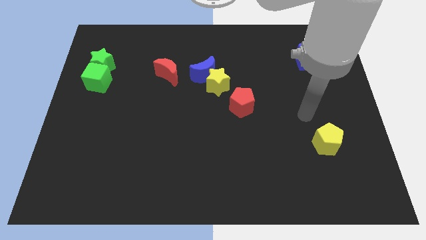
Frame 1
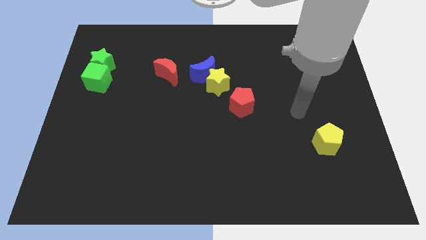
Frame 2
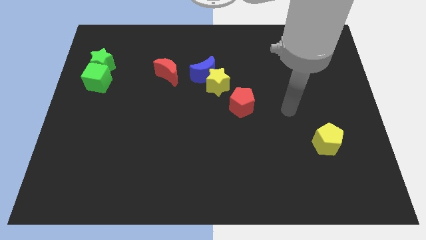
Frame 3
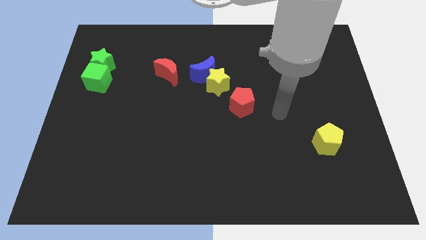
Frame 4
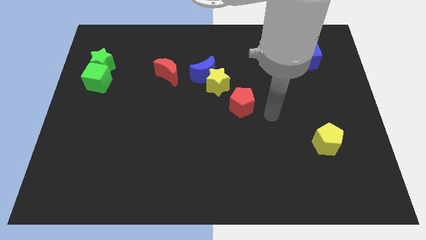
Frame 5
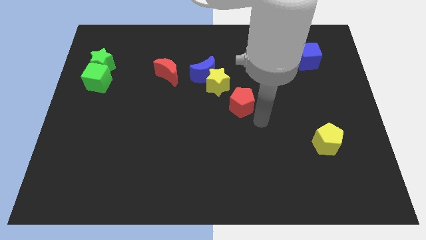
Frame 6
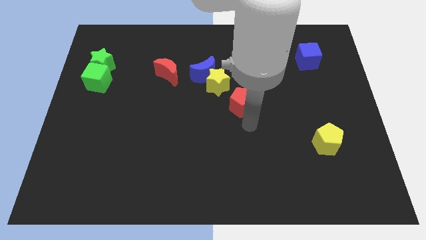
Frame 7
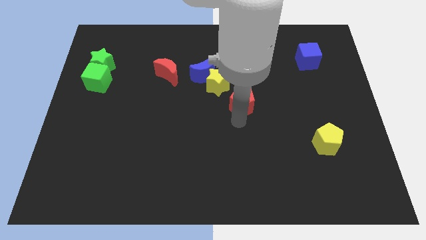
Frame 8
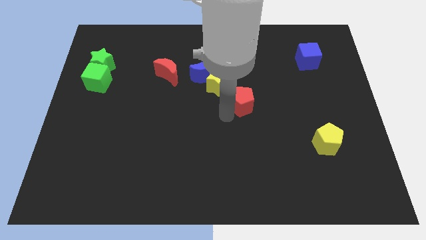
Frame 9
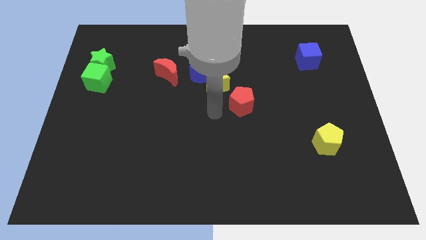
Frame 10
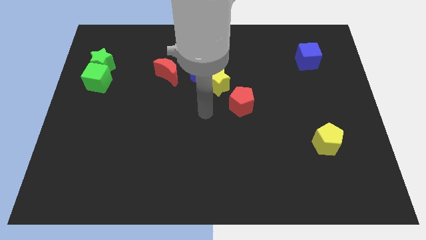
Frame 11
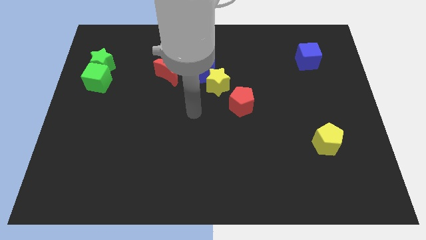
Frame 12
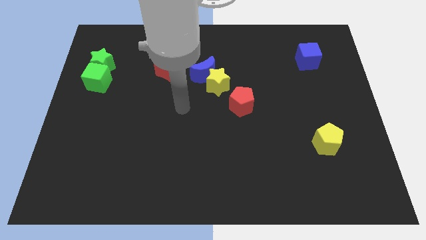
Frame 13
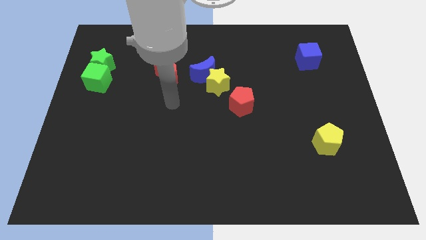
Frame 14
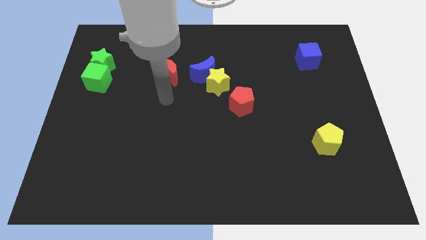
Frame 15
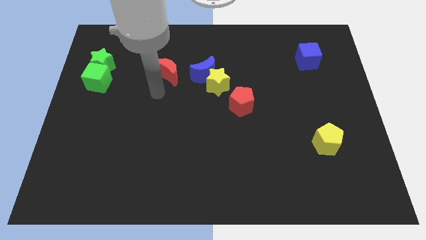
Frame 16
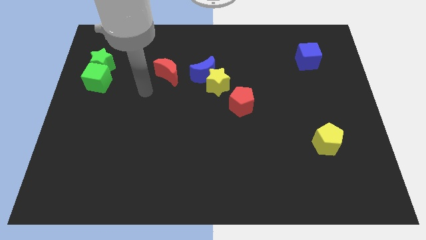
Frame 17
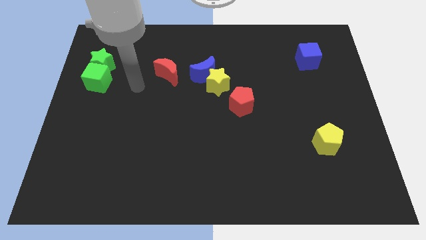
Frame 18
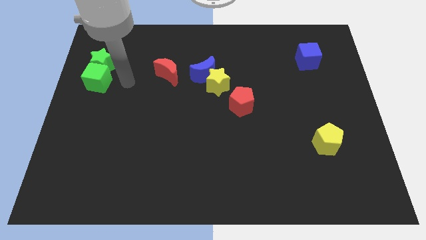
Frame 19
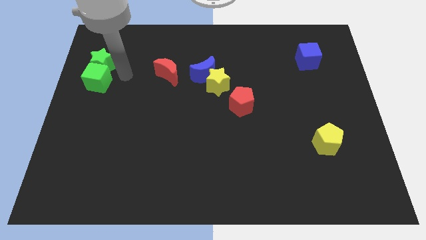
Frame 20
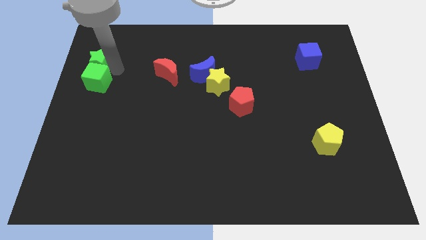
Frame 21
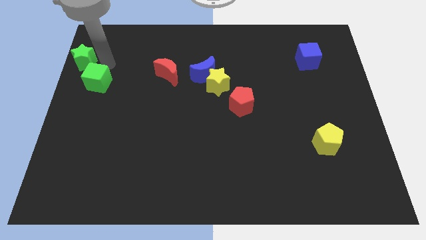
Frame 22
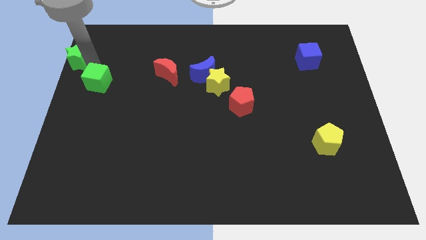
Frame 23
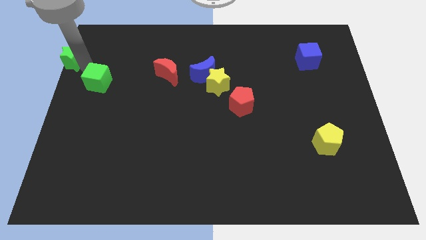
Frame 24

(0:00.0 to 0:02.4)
move the green cube away from the green star

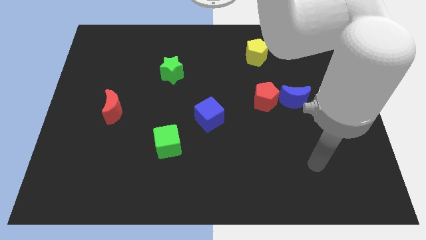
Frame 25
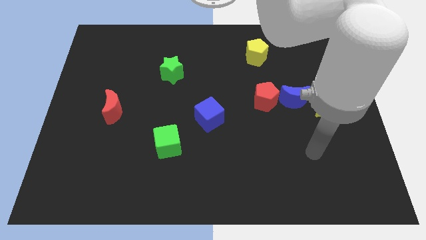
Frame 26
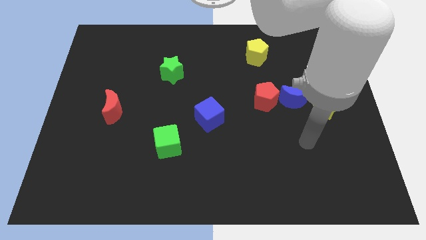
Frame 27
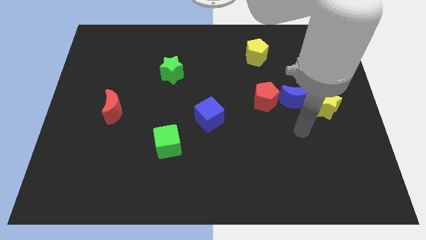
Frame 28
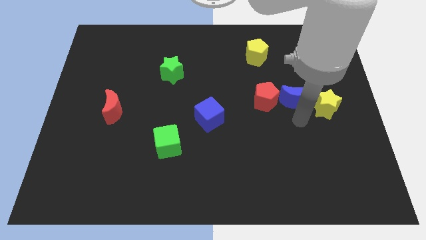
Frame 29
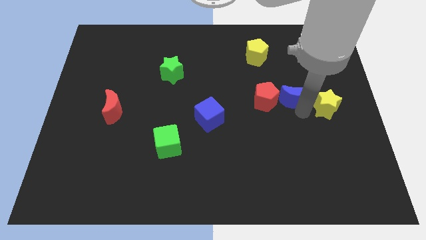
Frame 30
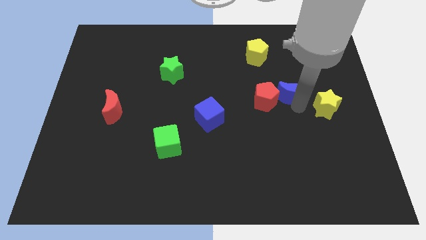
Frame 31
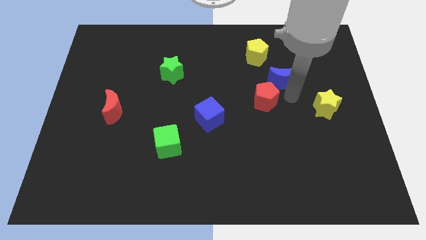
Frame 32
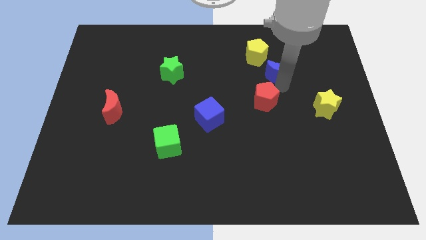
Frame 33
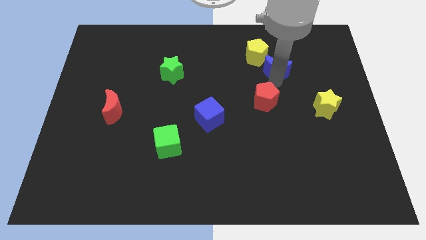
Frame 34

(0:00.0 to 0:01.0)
pull the red pentagon apart from the blue moon

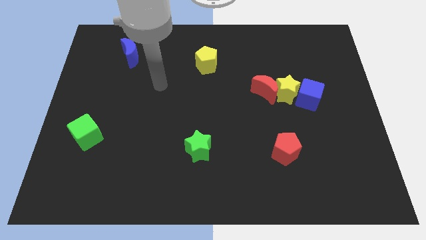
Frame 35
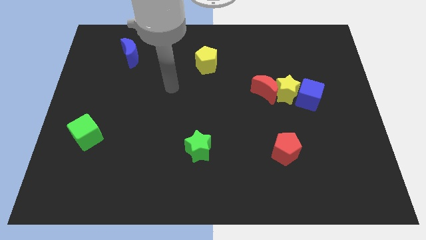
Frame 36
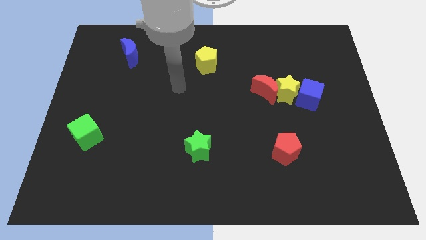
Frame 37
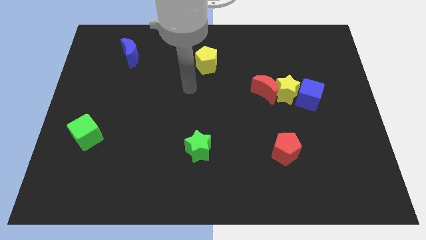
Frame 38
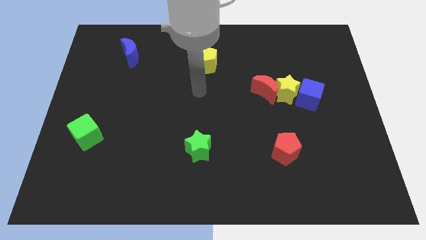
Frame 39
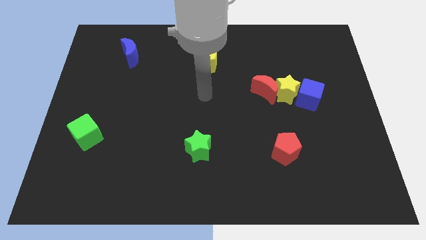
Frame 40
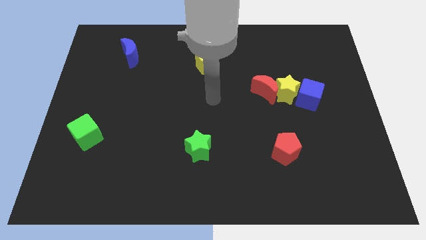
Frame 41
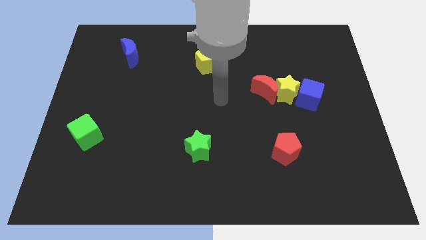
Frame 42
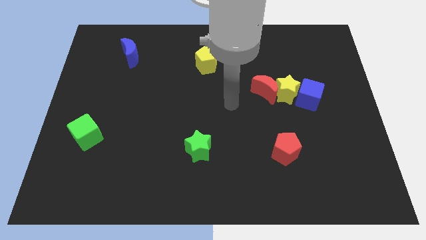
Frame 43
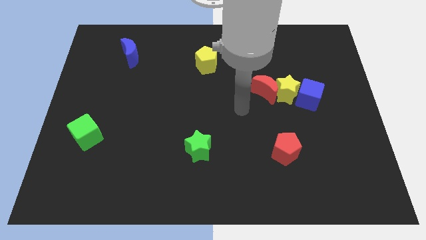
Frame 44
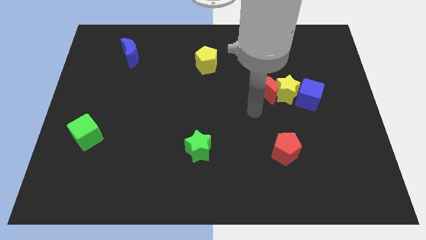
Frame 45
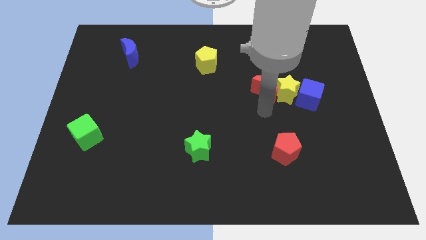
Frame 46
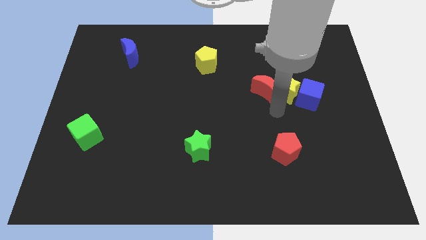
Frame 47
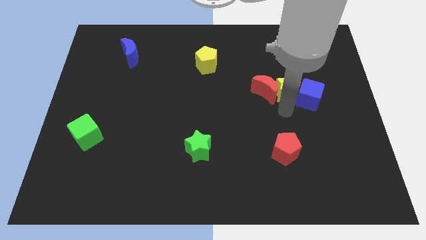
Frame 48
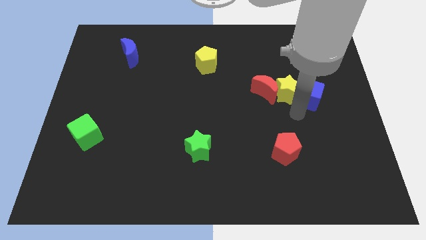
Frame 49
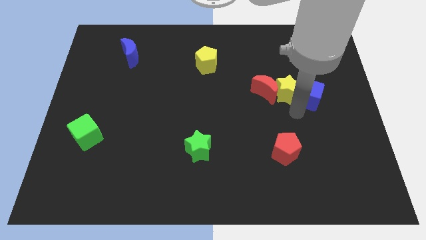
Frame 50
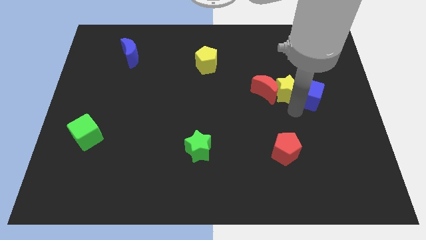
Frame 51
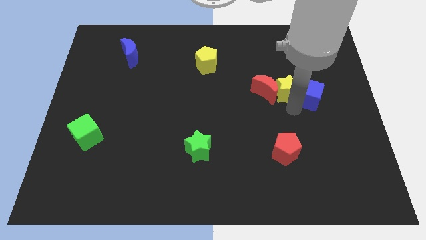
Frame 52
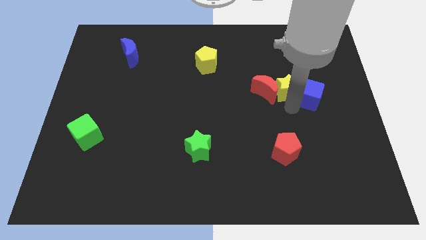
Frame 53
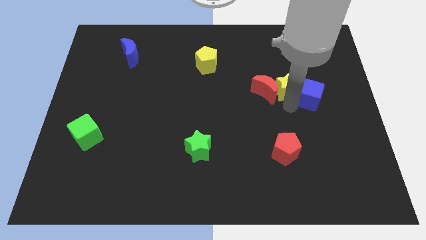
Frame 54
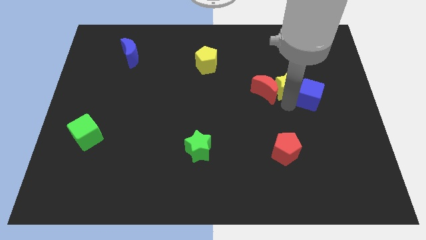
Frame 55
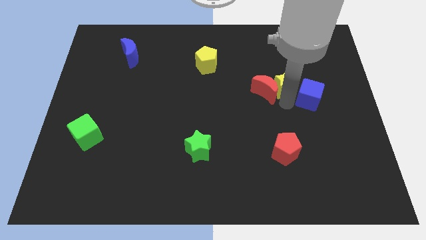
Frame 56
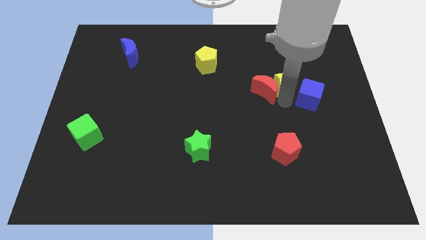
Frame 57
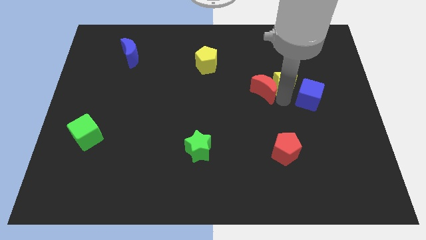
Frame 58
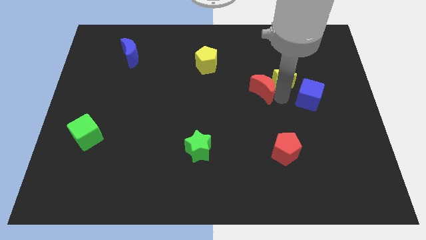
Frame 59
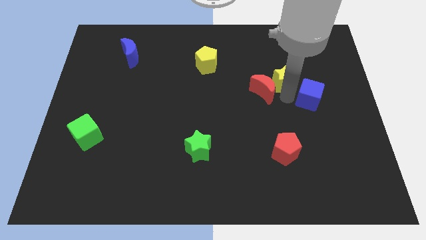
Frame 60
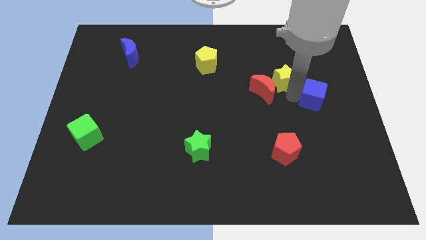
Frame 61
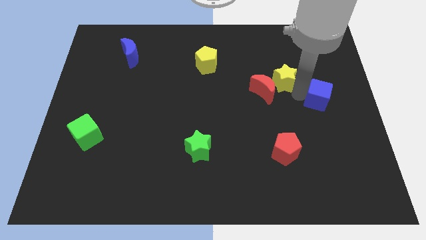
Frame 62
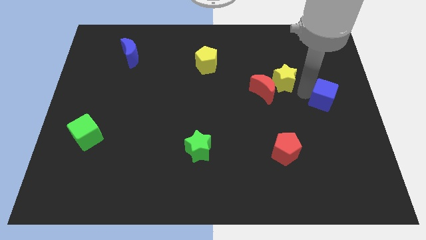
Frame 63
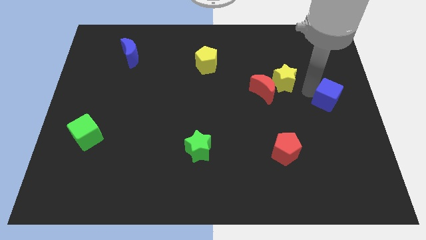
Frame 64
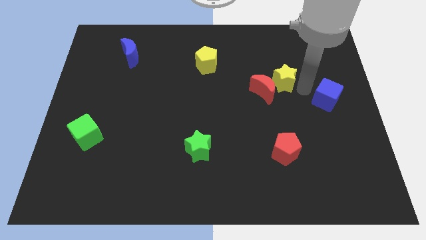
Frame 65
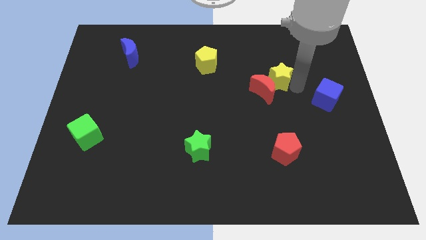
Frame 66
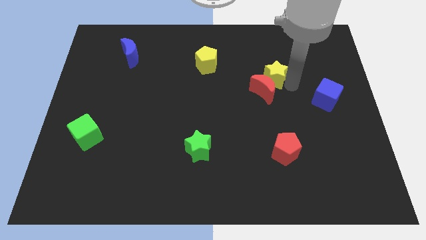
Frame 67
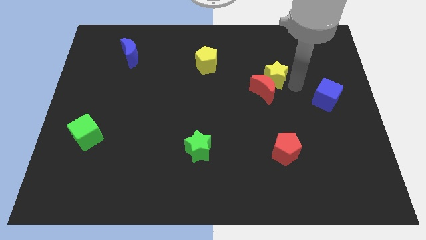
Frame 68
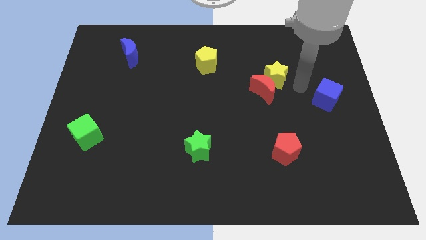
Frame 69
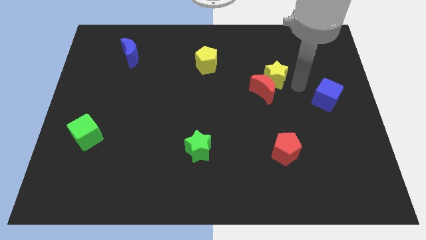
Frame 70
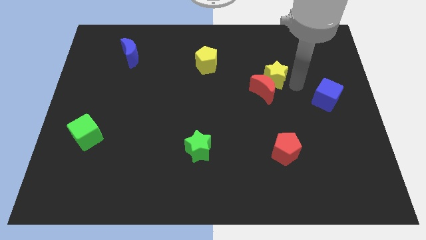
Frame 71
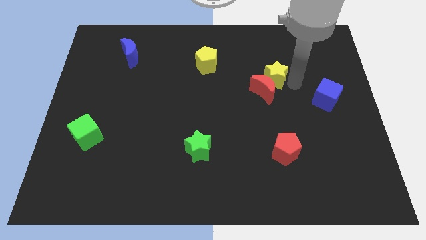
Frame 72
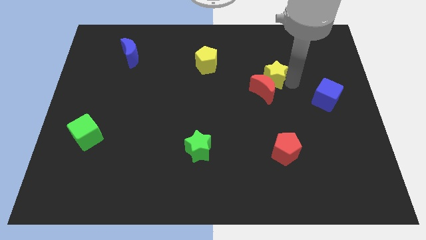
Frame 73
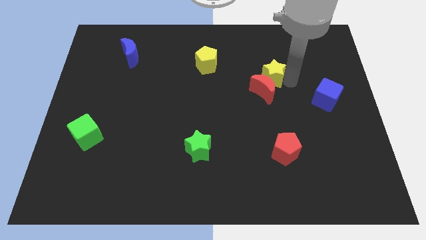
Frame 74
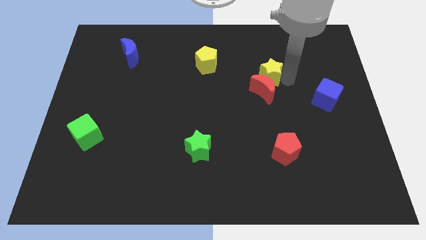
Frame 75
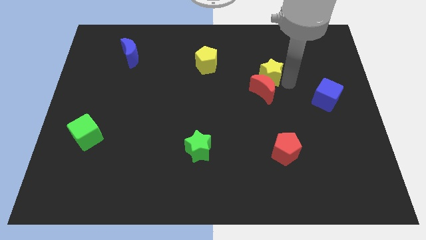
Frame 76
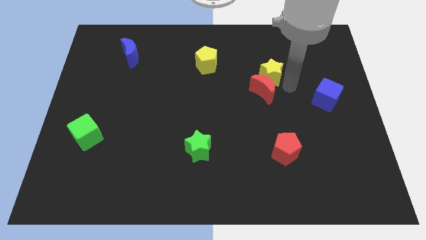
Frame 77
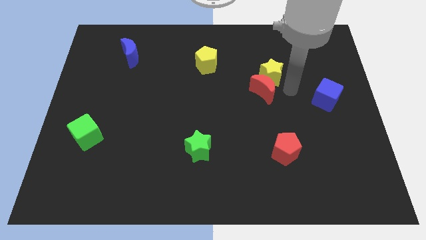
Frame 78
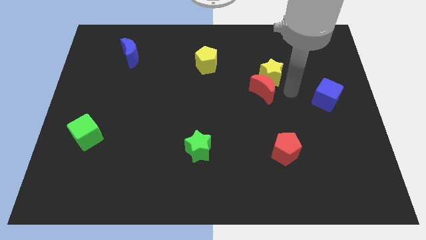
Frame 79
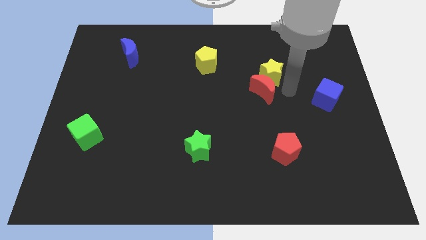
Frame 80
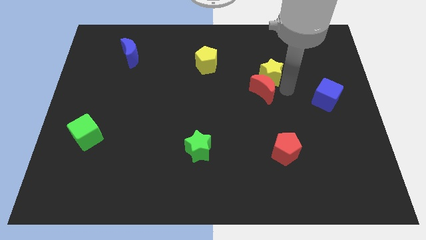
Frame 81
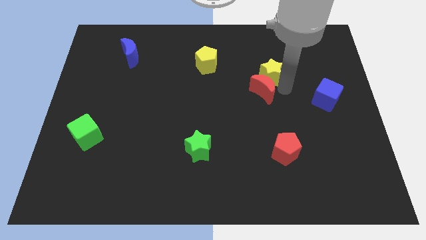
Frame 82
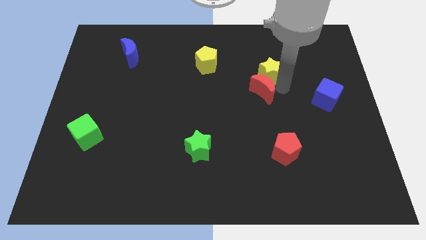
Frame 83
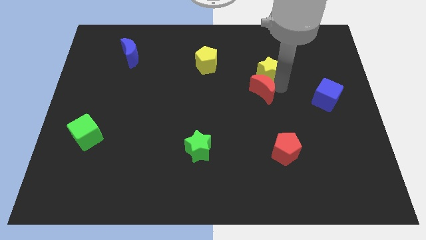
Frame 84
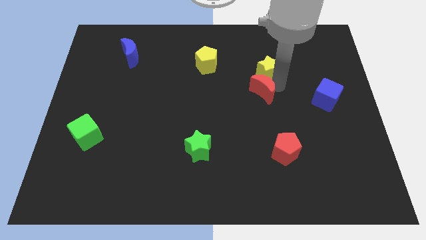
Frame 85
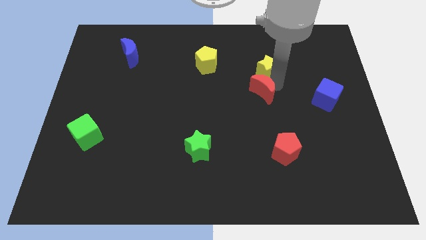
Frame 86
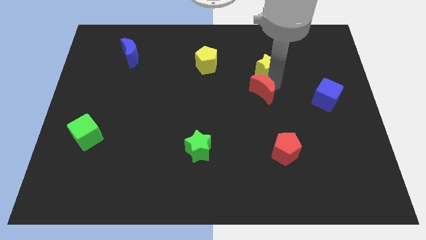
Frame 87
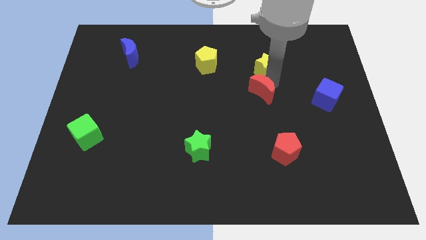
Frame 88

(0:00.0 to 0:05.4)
move the yellow star away from the red moon and blue cube

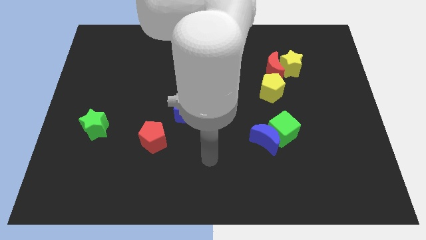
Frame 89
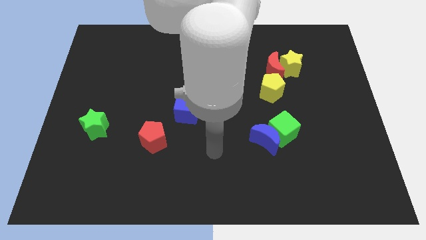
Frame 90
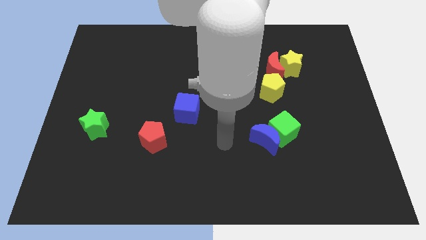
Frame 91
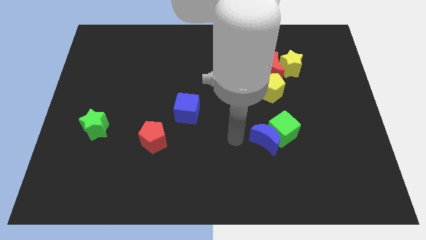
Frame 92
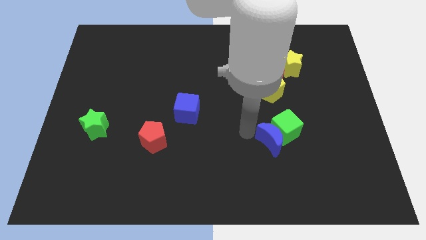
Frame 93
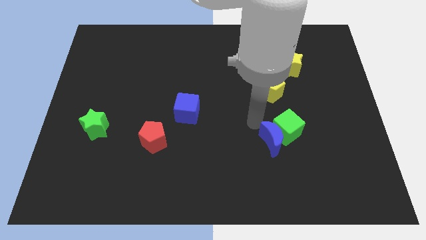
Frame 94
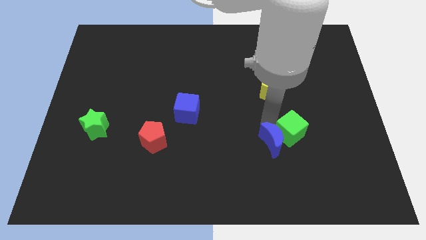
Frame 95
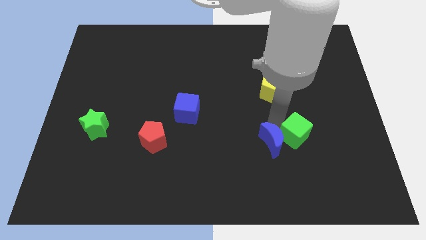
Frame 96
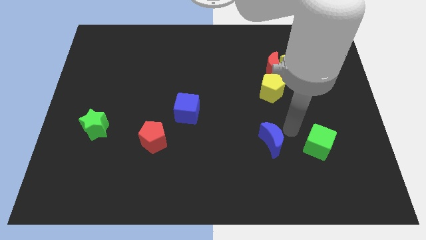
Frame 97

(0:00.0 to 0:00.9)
pull the blue moon apart from the green cube
